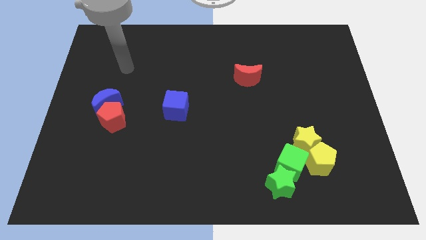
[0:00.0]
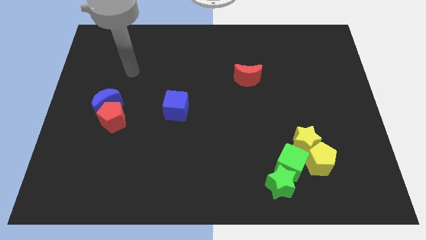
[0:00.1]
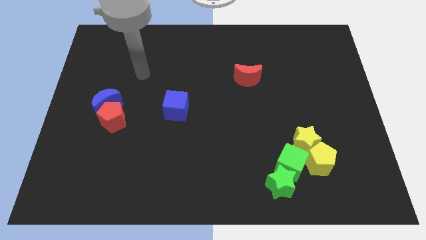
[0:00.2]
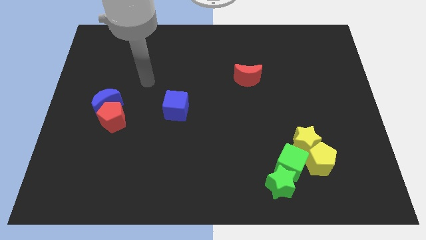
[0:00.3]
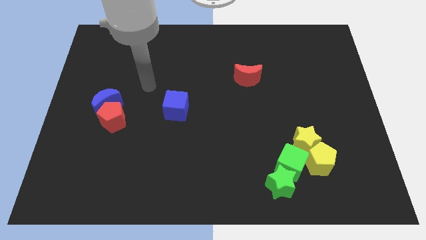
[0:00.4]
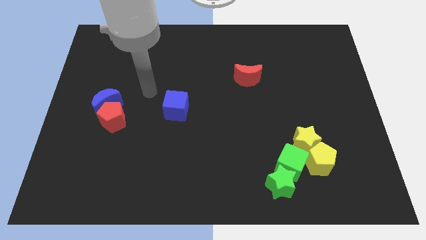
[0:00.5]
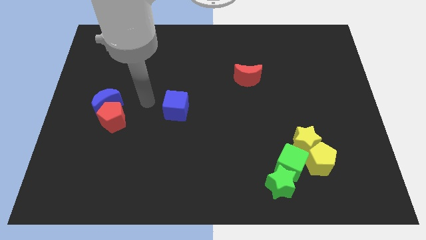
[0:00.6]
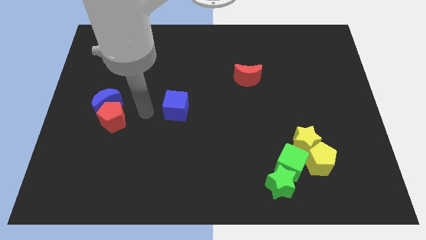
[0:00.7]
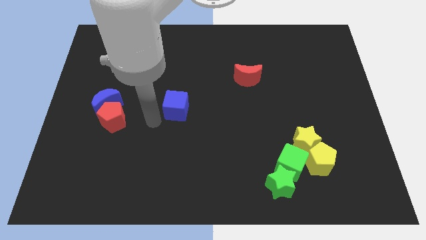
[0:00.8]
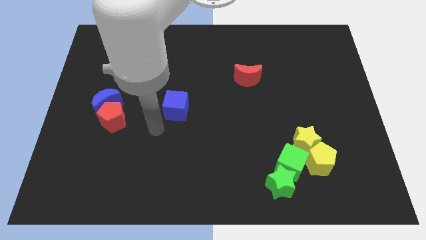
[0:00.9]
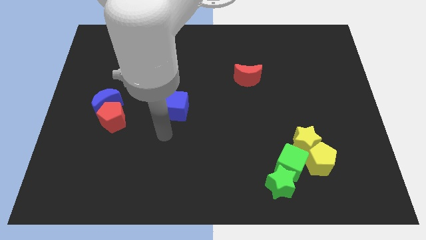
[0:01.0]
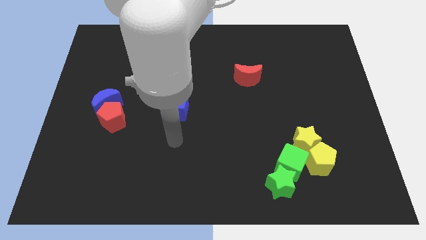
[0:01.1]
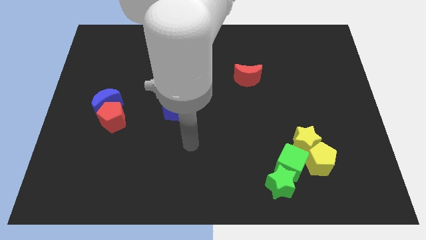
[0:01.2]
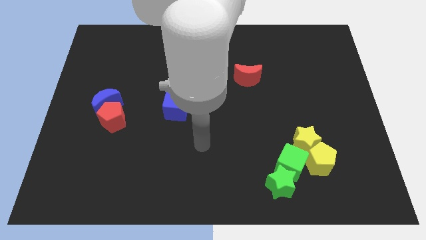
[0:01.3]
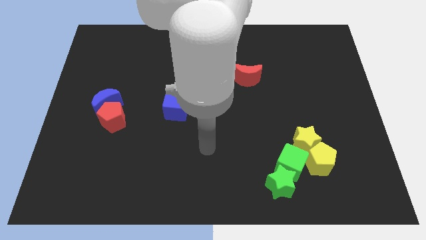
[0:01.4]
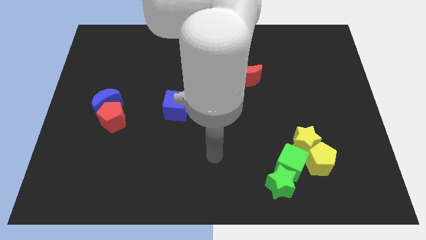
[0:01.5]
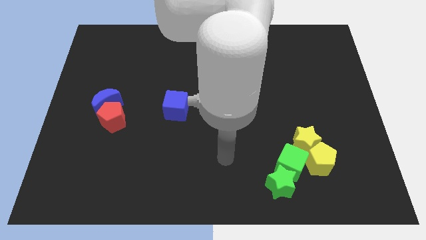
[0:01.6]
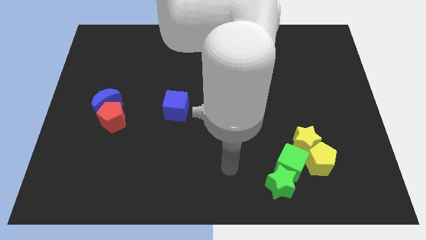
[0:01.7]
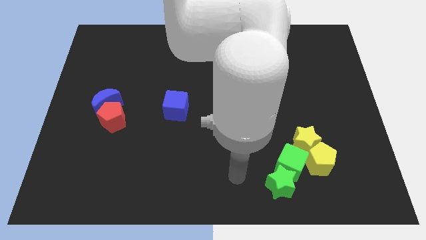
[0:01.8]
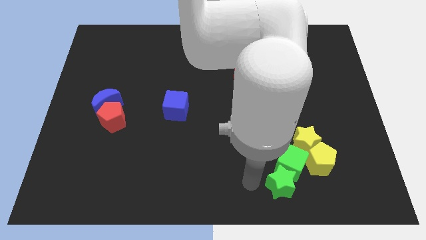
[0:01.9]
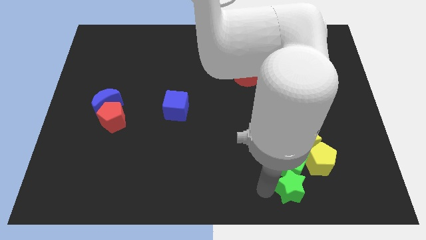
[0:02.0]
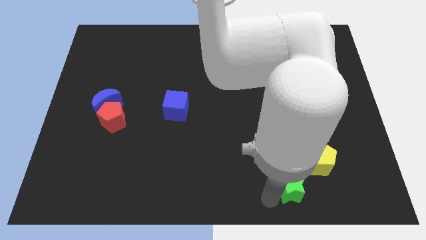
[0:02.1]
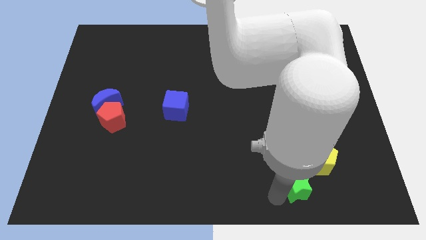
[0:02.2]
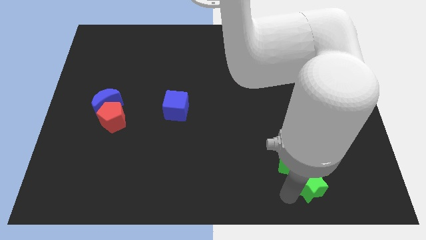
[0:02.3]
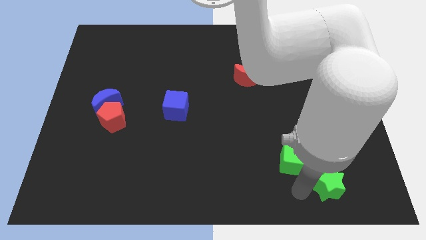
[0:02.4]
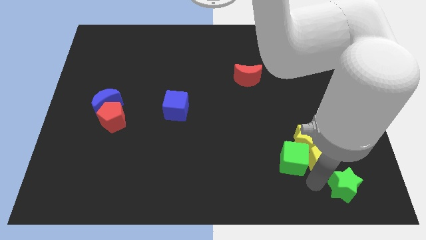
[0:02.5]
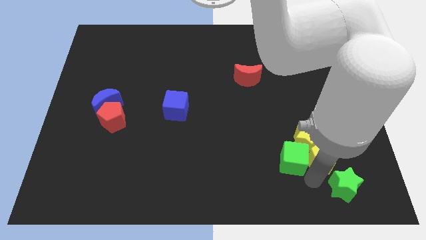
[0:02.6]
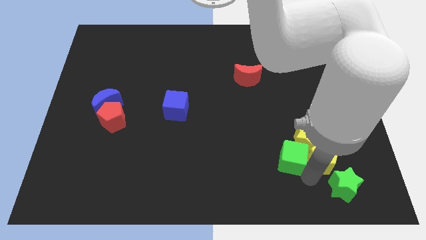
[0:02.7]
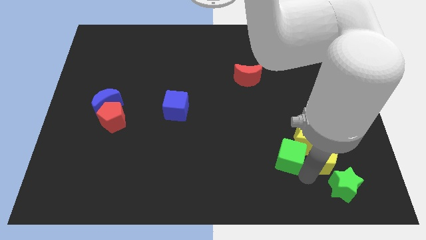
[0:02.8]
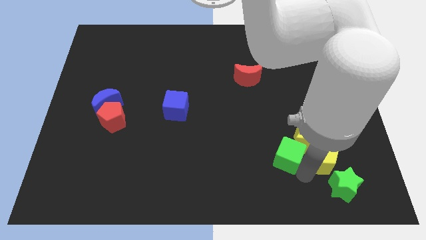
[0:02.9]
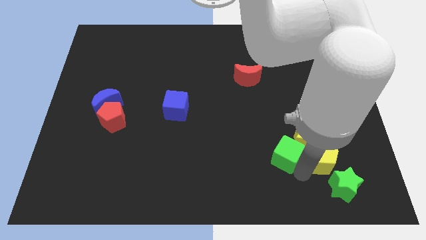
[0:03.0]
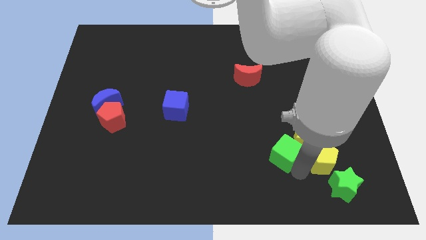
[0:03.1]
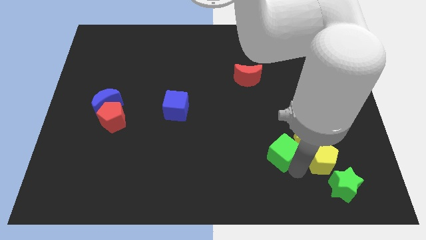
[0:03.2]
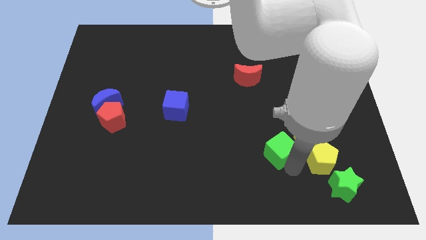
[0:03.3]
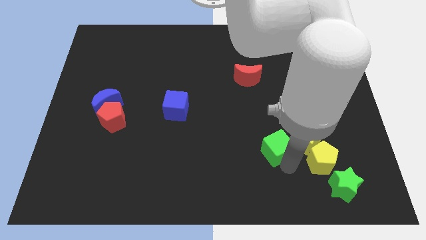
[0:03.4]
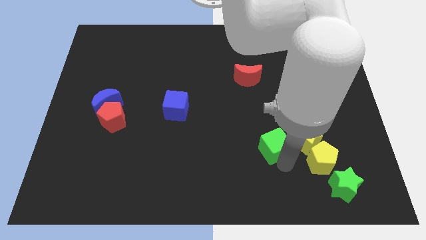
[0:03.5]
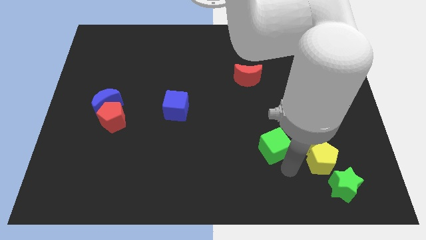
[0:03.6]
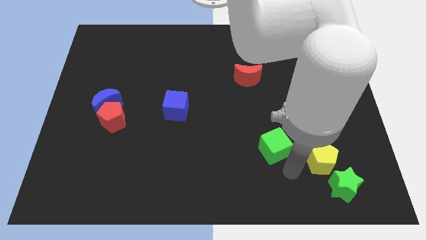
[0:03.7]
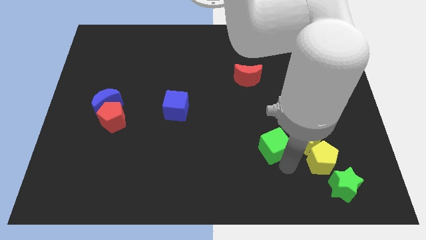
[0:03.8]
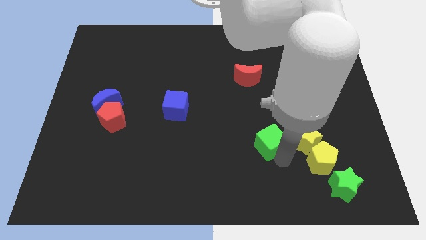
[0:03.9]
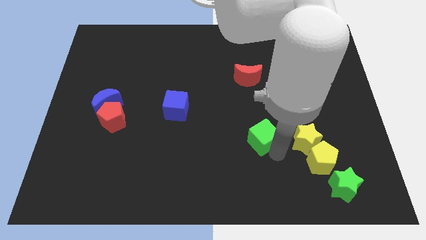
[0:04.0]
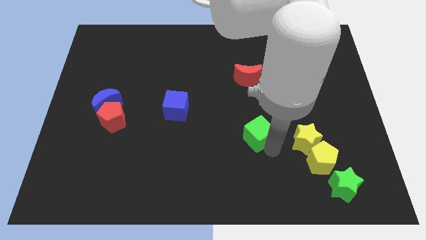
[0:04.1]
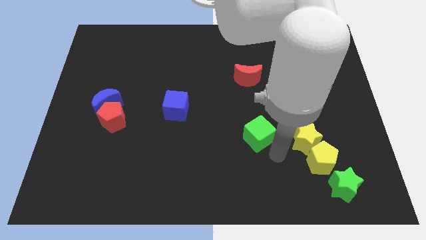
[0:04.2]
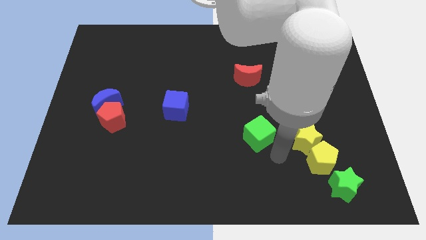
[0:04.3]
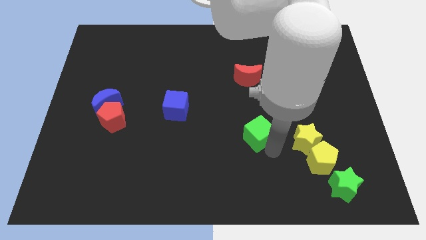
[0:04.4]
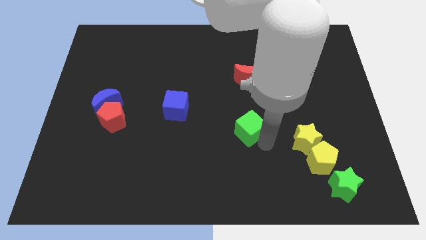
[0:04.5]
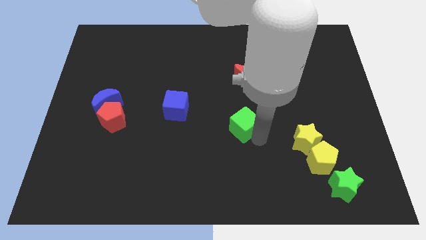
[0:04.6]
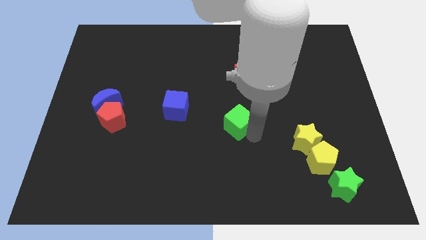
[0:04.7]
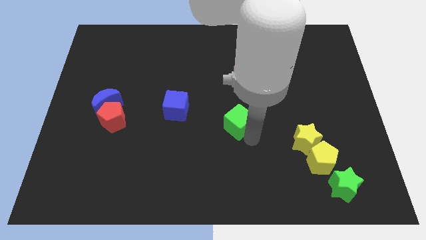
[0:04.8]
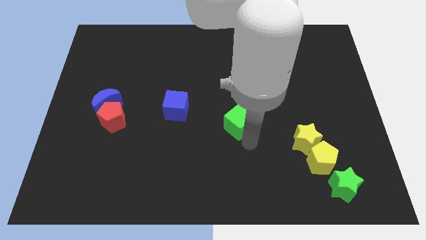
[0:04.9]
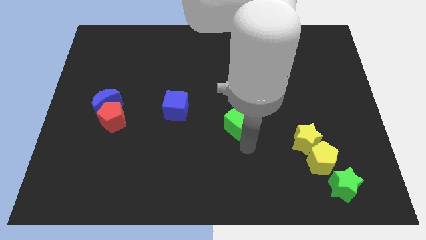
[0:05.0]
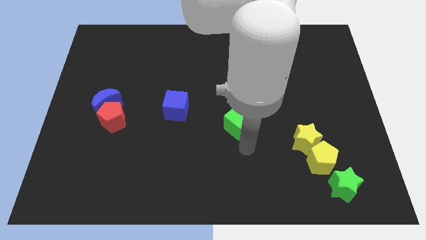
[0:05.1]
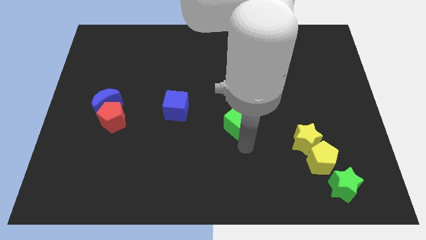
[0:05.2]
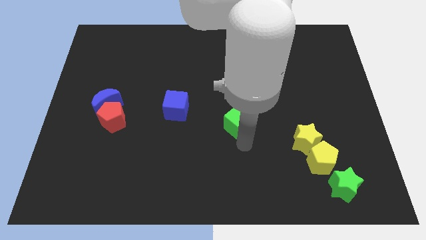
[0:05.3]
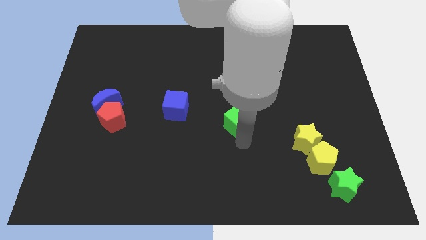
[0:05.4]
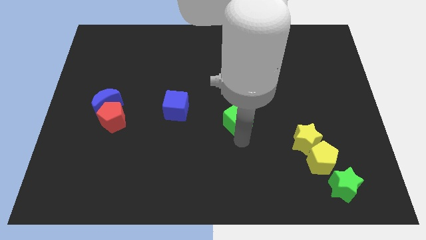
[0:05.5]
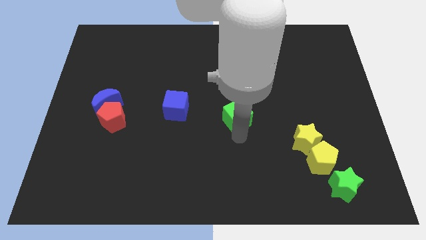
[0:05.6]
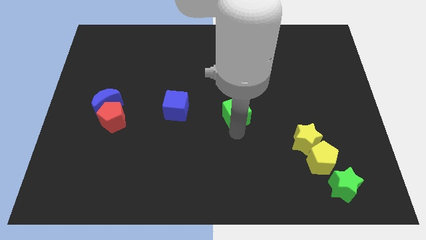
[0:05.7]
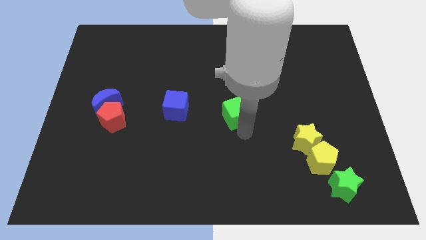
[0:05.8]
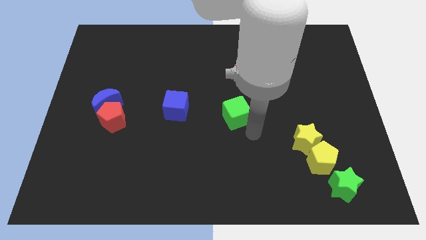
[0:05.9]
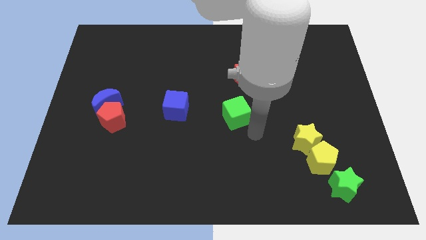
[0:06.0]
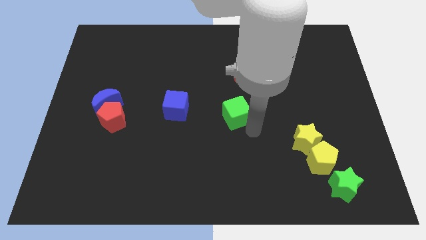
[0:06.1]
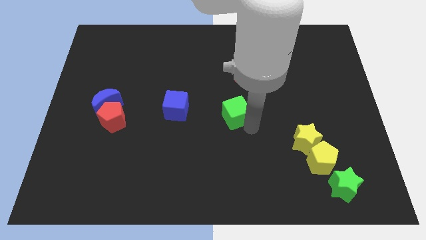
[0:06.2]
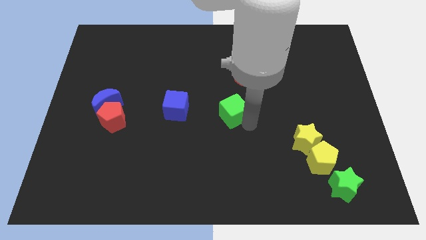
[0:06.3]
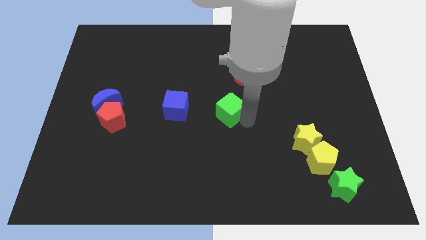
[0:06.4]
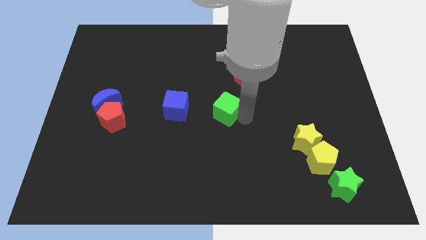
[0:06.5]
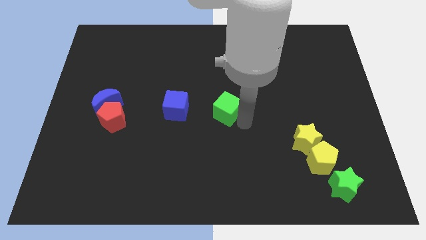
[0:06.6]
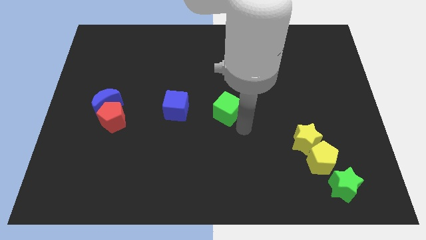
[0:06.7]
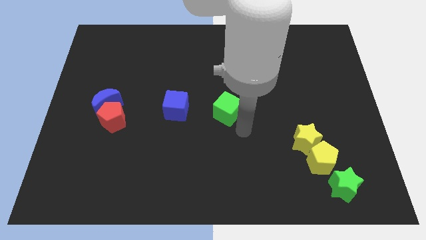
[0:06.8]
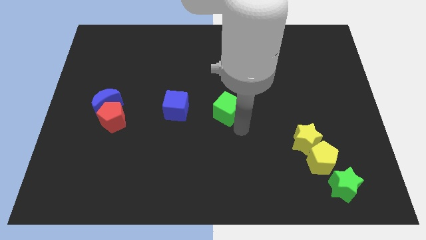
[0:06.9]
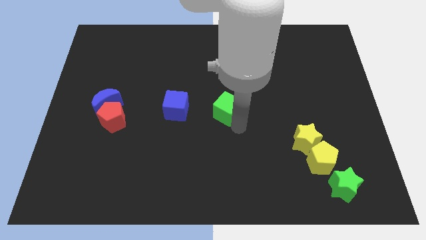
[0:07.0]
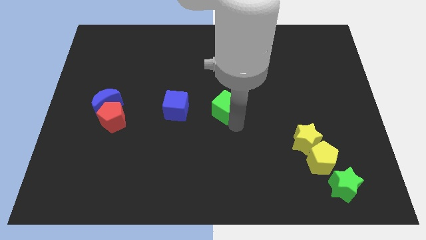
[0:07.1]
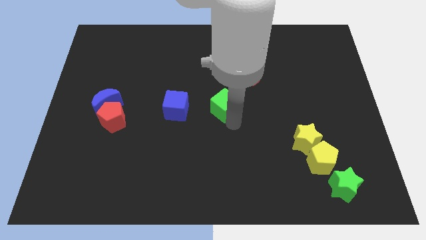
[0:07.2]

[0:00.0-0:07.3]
push the green cube upwards and to the left

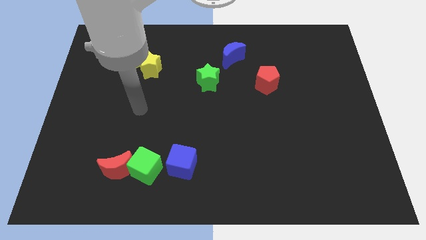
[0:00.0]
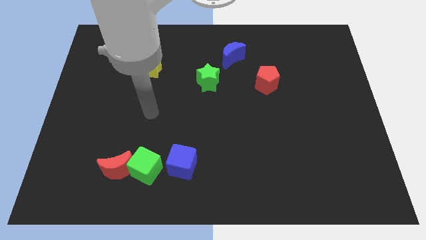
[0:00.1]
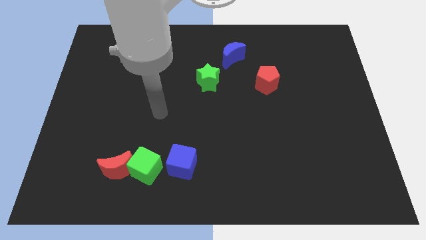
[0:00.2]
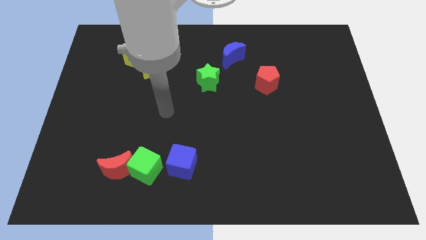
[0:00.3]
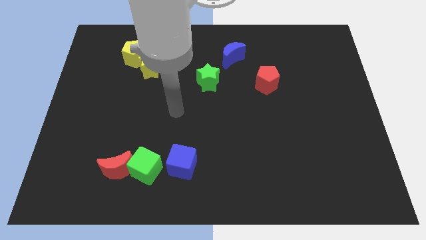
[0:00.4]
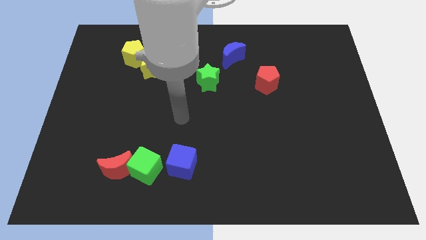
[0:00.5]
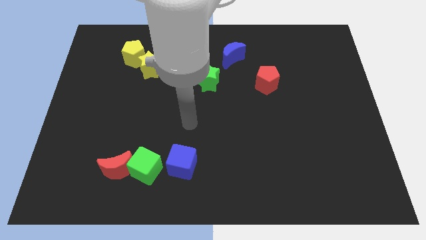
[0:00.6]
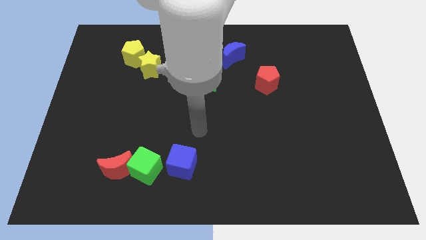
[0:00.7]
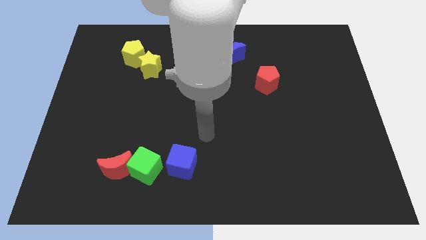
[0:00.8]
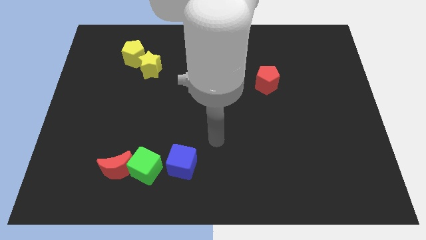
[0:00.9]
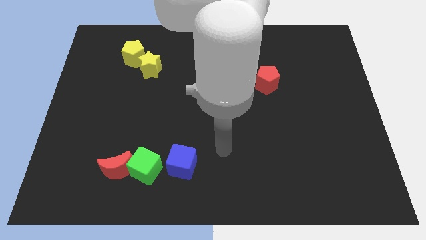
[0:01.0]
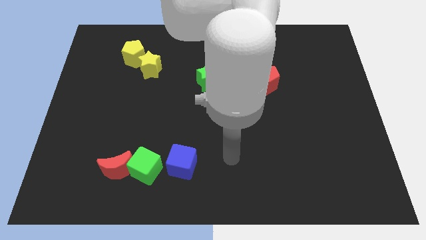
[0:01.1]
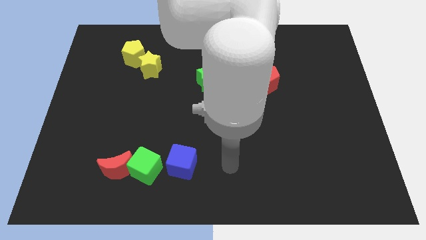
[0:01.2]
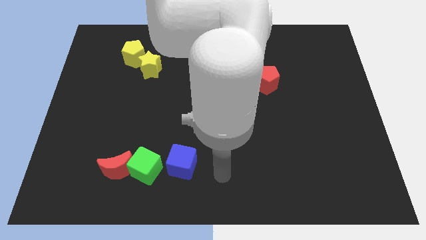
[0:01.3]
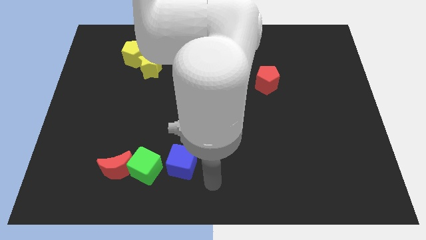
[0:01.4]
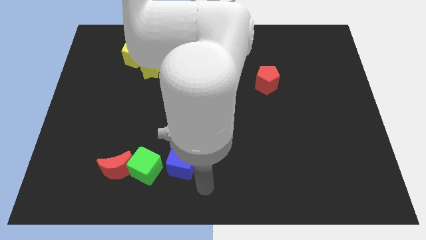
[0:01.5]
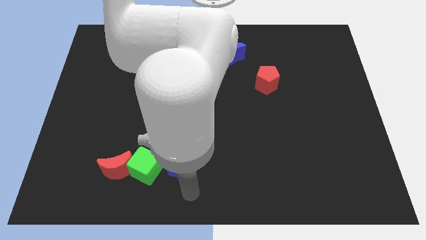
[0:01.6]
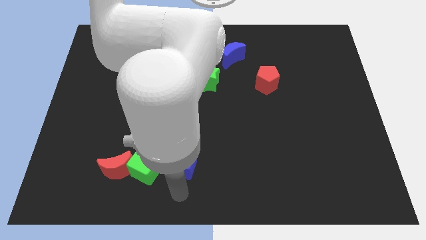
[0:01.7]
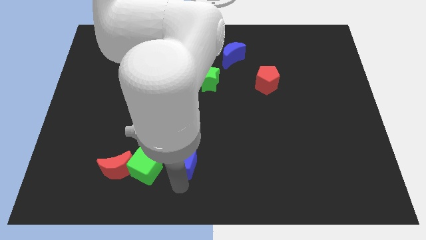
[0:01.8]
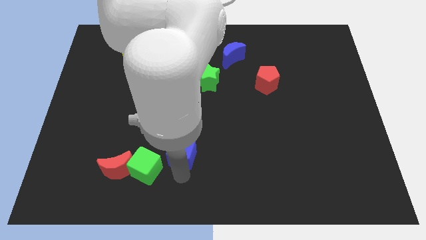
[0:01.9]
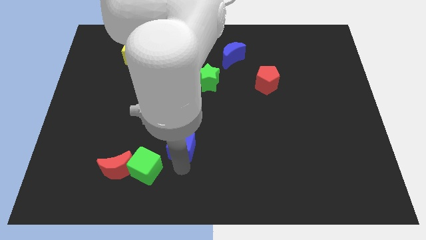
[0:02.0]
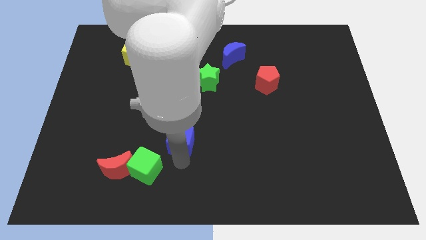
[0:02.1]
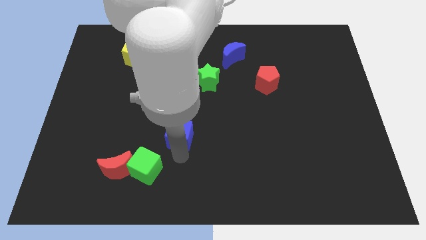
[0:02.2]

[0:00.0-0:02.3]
move the blue cube upwards slightly
